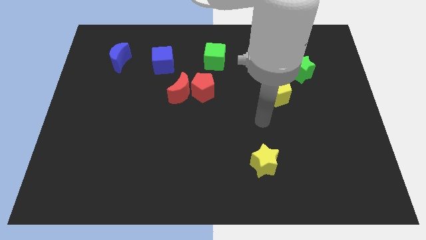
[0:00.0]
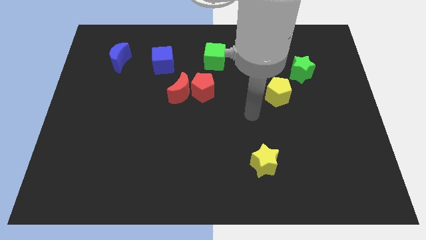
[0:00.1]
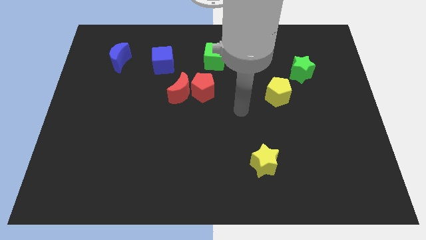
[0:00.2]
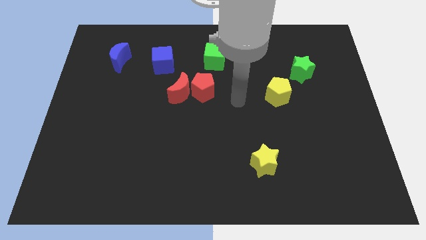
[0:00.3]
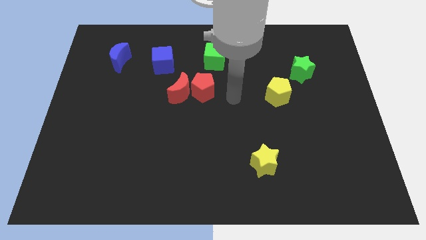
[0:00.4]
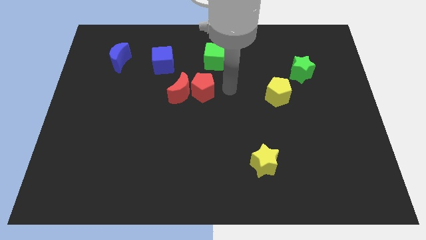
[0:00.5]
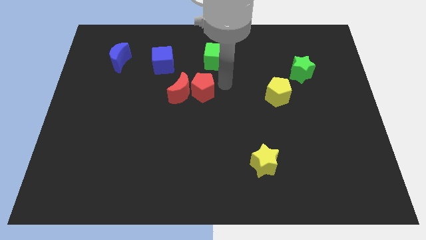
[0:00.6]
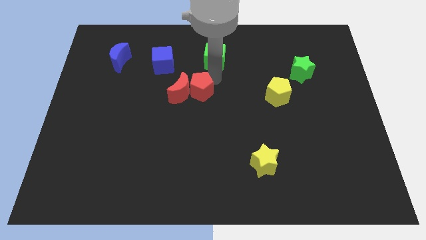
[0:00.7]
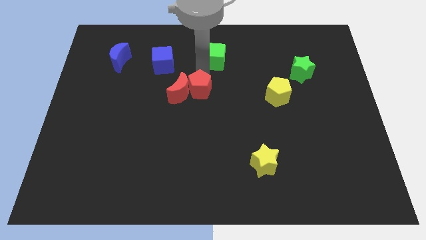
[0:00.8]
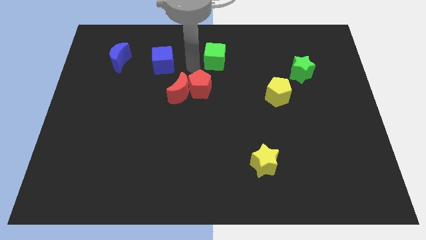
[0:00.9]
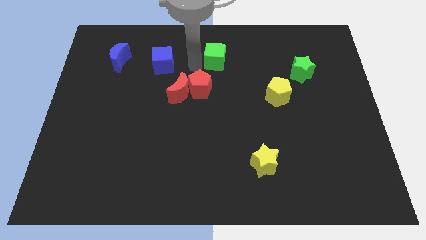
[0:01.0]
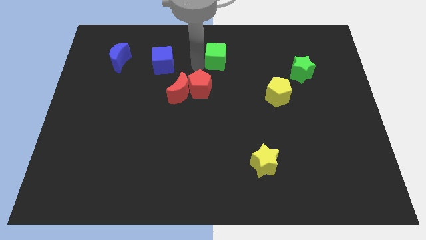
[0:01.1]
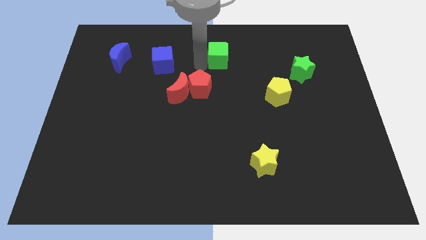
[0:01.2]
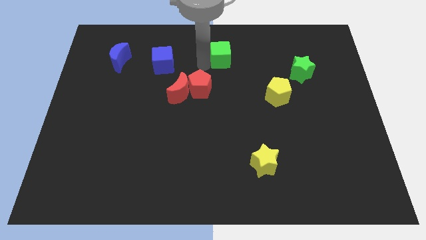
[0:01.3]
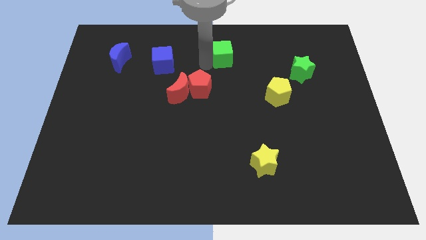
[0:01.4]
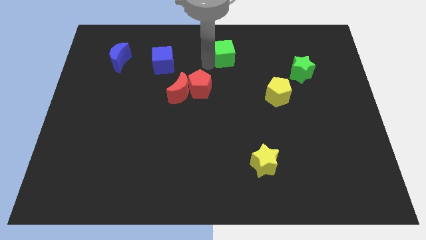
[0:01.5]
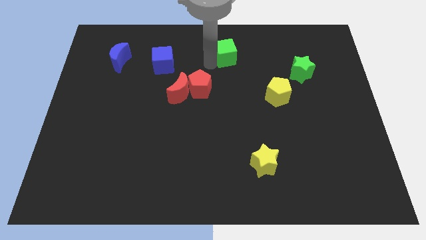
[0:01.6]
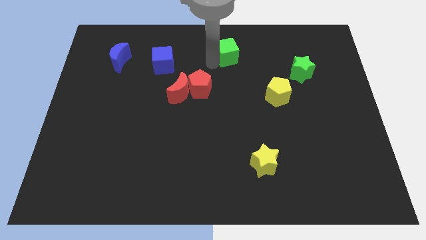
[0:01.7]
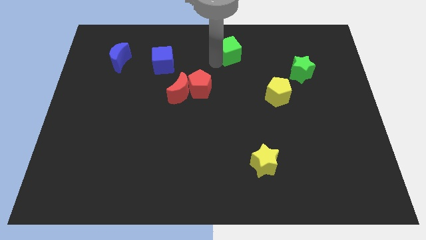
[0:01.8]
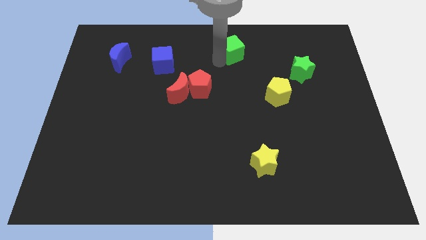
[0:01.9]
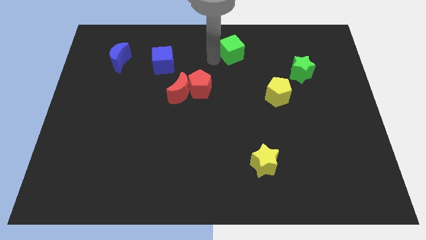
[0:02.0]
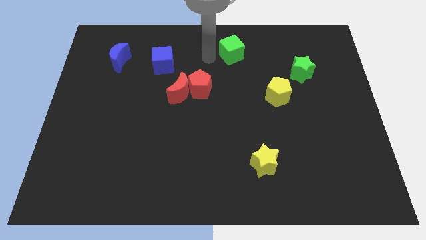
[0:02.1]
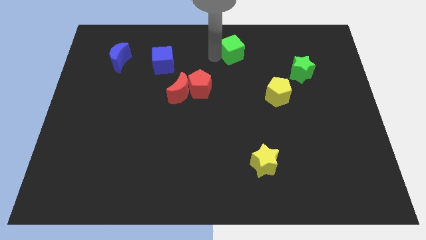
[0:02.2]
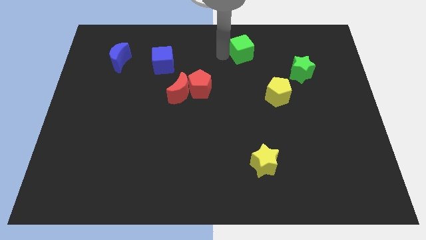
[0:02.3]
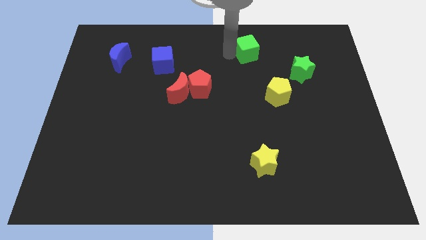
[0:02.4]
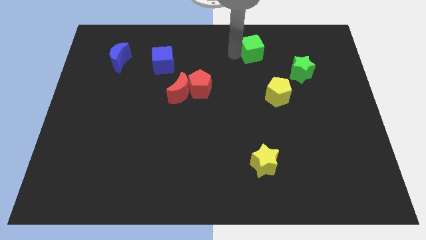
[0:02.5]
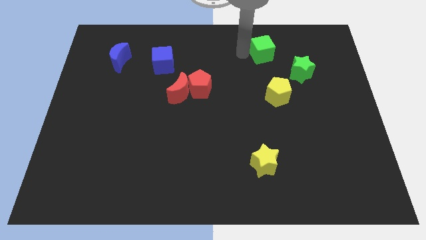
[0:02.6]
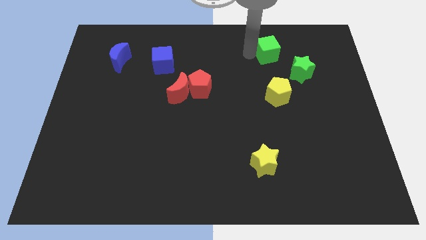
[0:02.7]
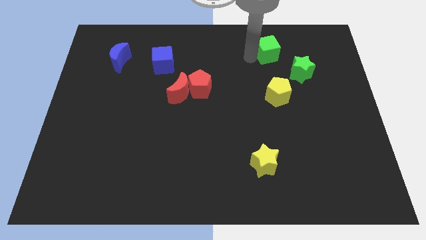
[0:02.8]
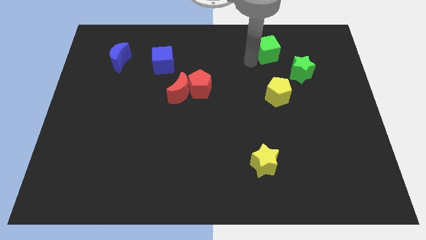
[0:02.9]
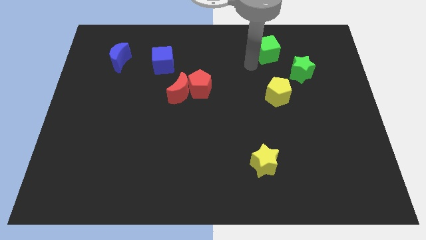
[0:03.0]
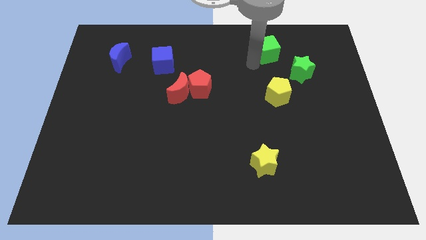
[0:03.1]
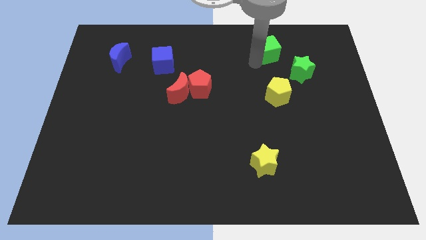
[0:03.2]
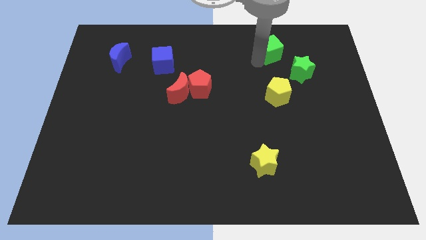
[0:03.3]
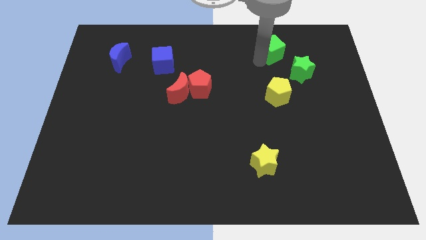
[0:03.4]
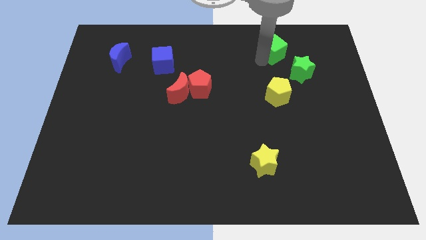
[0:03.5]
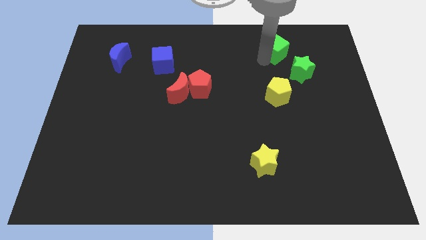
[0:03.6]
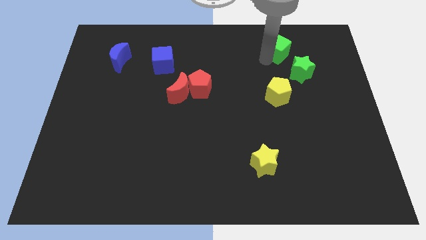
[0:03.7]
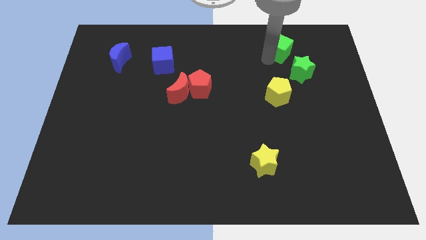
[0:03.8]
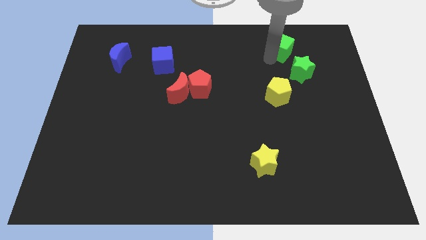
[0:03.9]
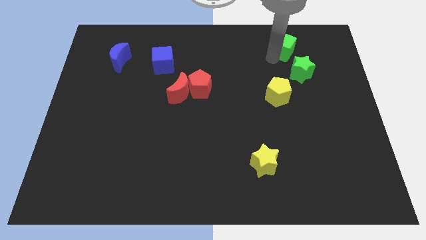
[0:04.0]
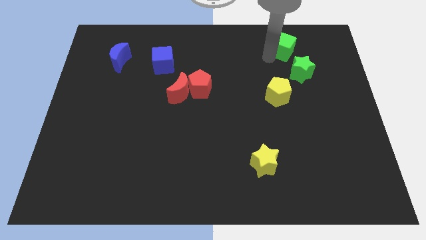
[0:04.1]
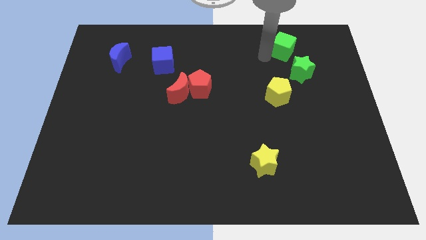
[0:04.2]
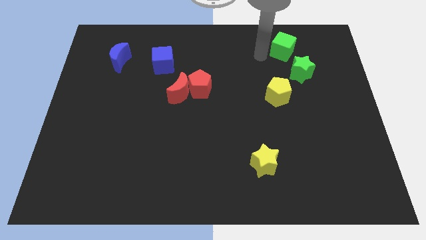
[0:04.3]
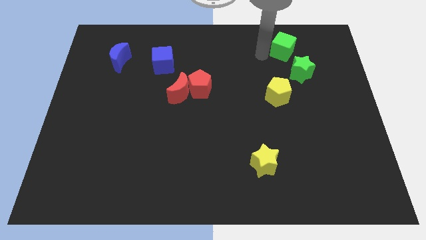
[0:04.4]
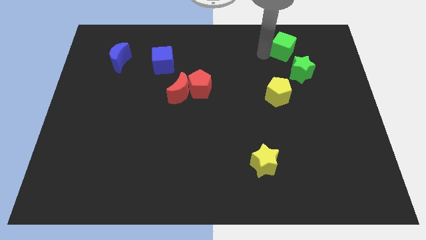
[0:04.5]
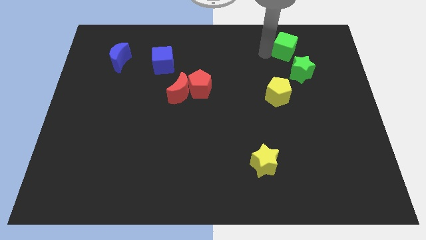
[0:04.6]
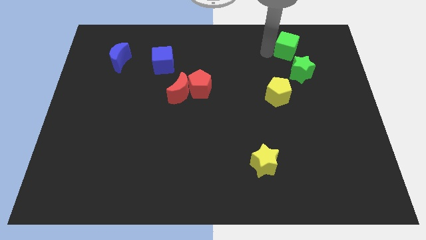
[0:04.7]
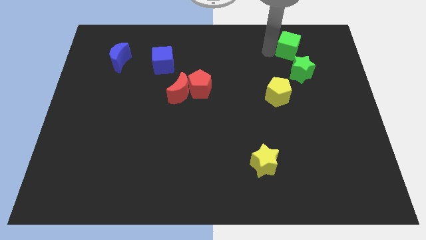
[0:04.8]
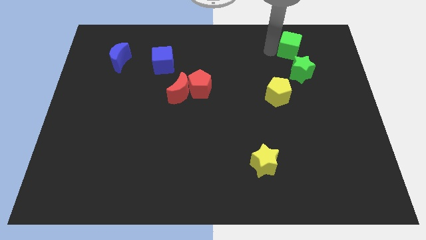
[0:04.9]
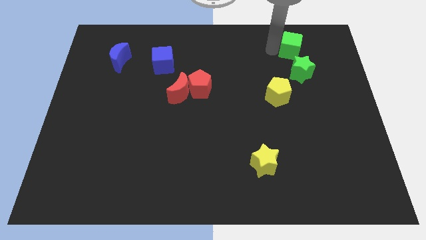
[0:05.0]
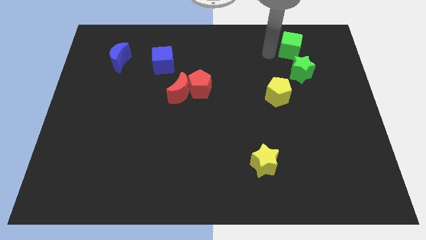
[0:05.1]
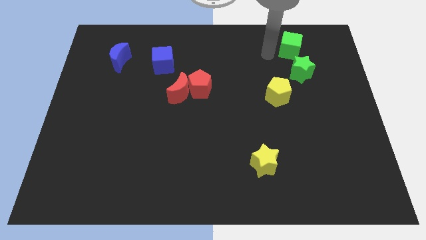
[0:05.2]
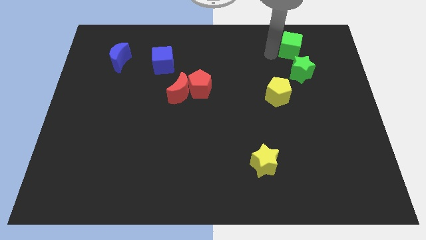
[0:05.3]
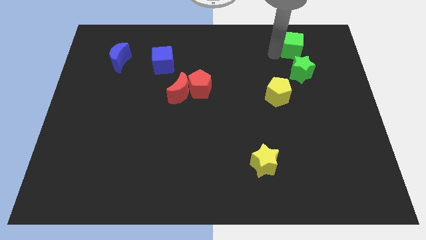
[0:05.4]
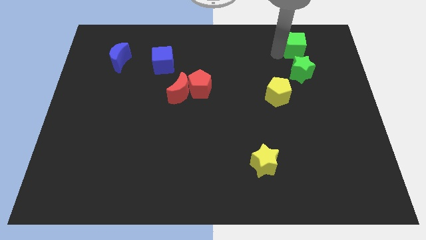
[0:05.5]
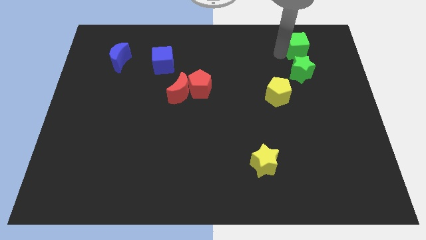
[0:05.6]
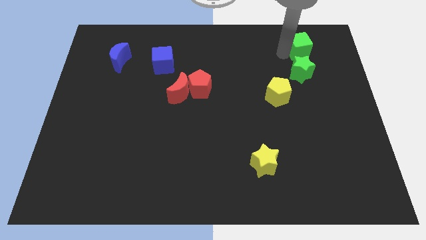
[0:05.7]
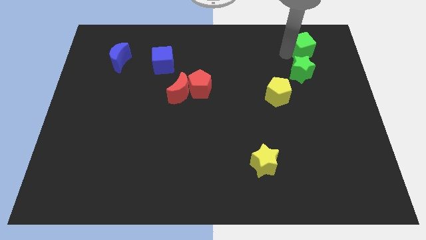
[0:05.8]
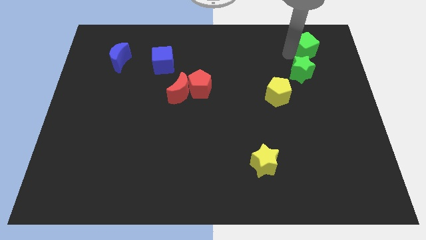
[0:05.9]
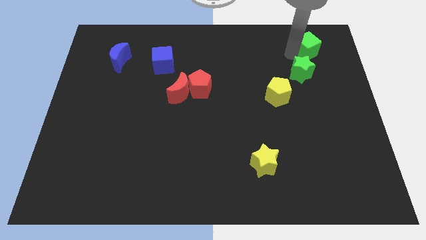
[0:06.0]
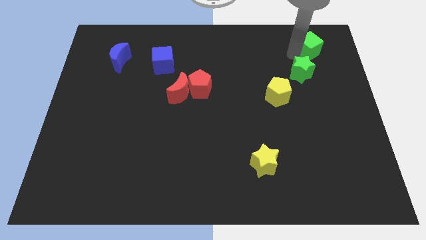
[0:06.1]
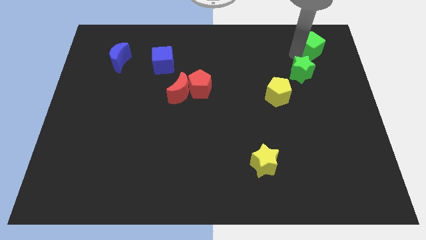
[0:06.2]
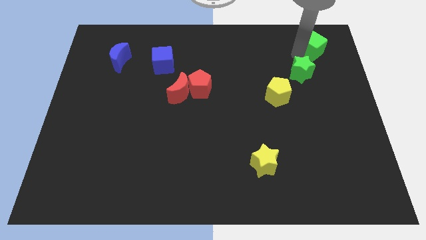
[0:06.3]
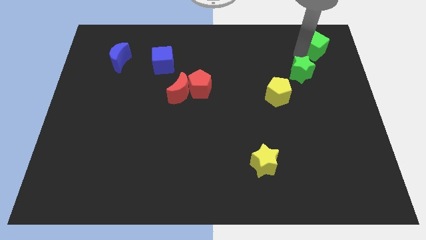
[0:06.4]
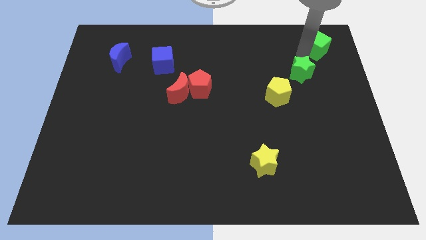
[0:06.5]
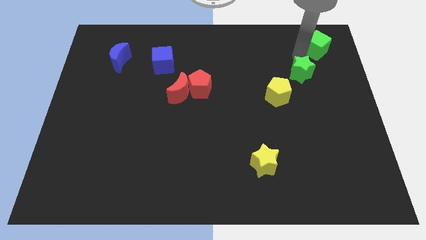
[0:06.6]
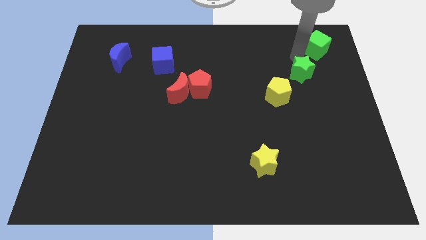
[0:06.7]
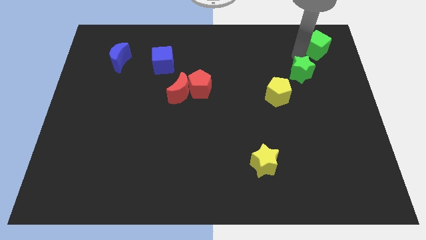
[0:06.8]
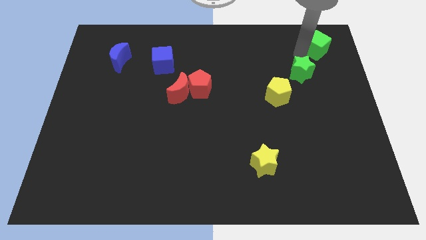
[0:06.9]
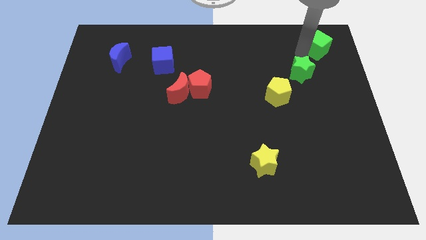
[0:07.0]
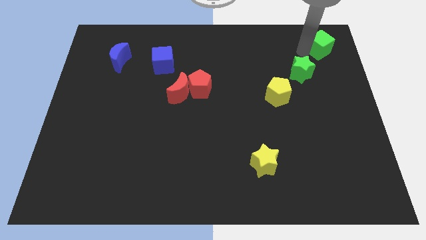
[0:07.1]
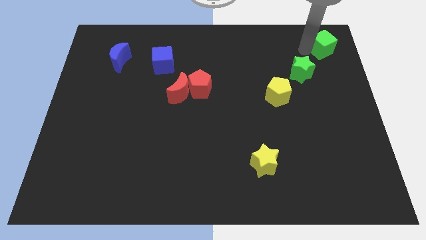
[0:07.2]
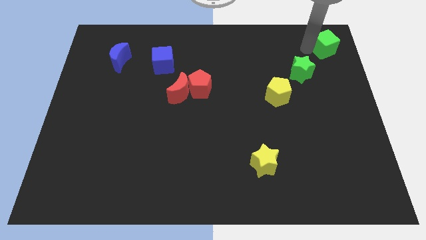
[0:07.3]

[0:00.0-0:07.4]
push the green cube to the top right corner
